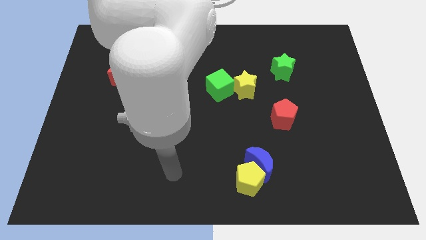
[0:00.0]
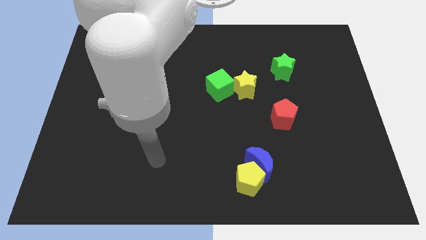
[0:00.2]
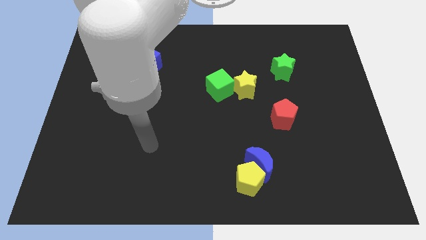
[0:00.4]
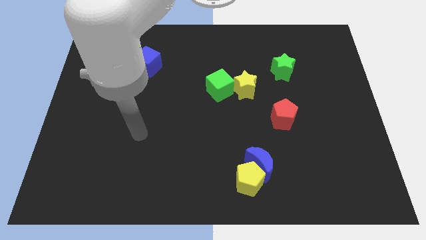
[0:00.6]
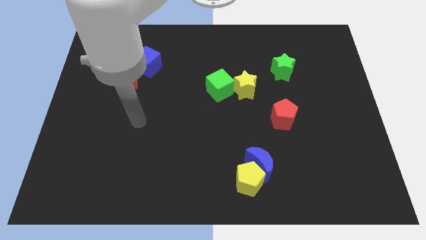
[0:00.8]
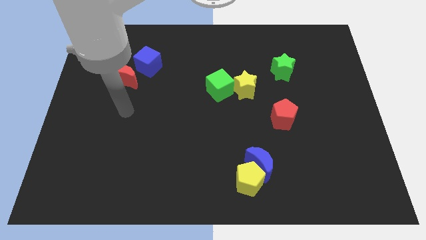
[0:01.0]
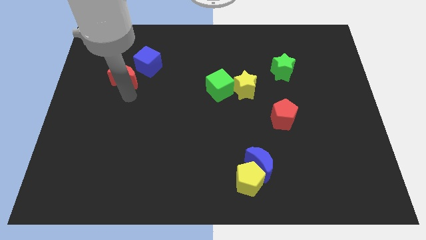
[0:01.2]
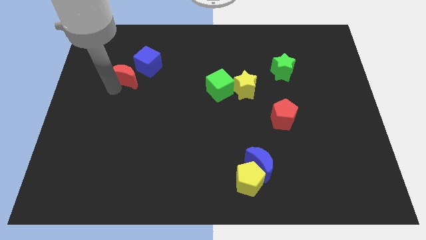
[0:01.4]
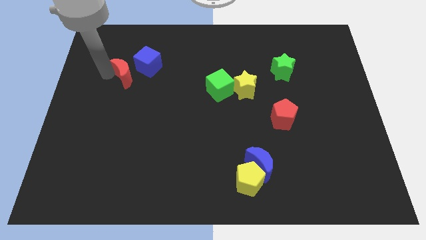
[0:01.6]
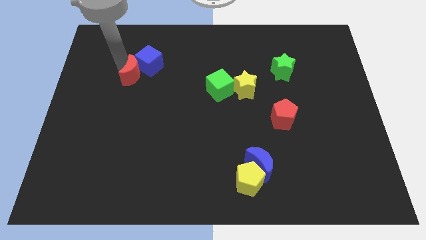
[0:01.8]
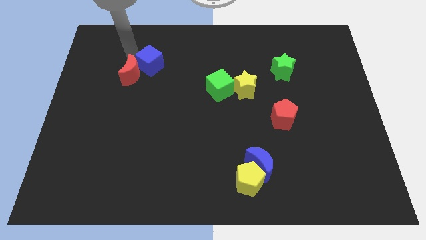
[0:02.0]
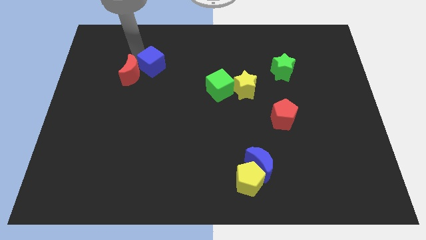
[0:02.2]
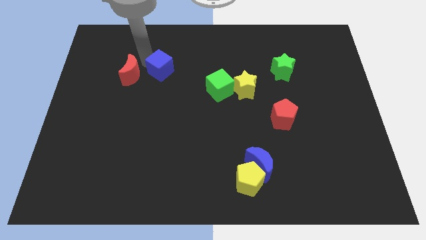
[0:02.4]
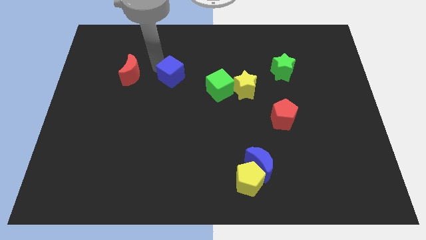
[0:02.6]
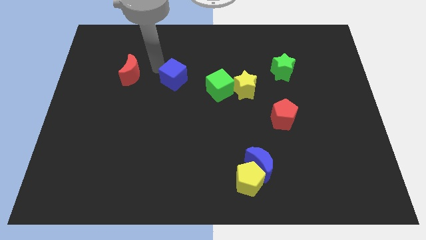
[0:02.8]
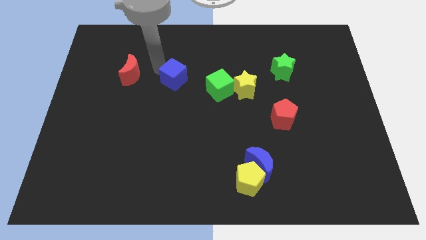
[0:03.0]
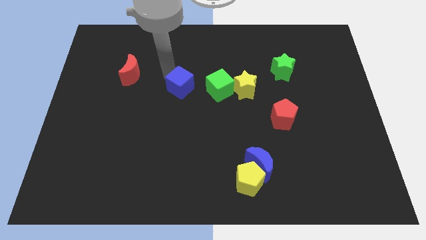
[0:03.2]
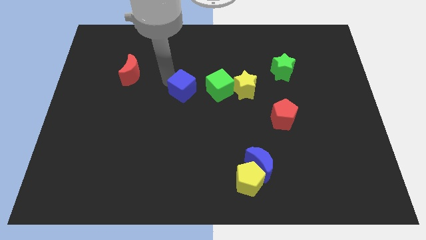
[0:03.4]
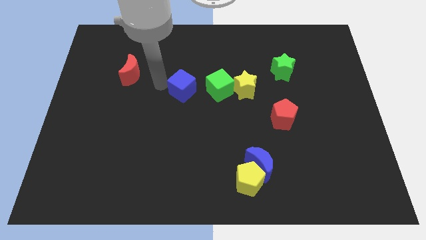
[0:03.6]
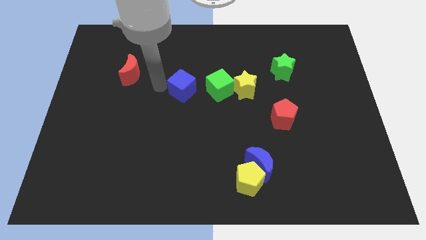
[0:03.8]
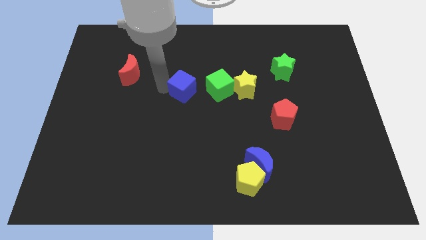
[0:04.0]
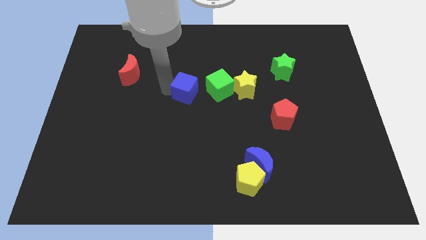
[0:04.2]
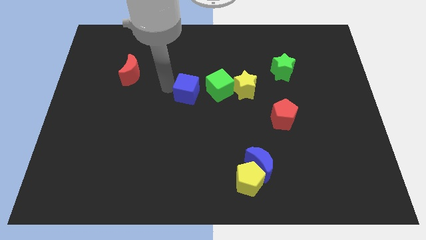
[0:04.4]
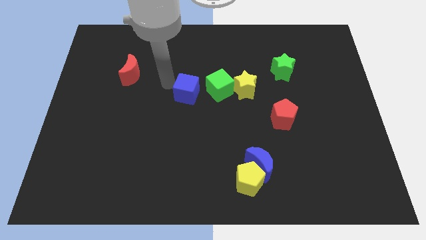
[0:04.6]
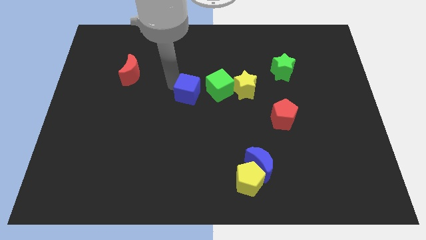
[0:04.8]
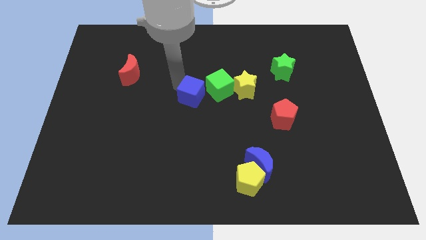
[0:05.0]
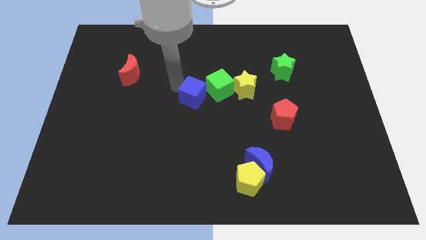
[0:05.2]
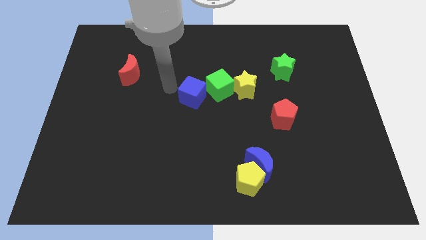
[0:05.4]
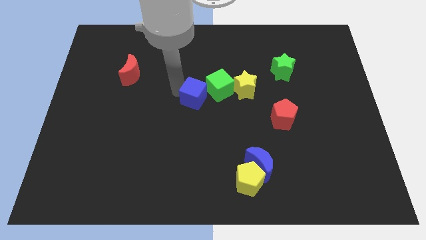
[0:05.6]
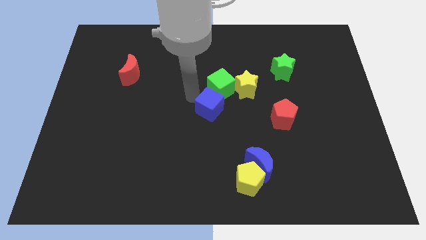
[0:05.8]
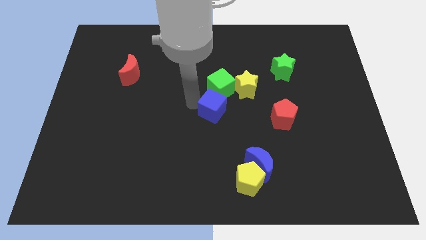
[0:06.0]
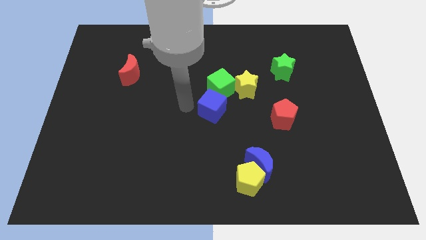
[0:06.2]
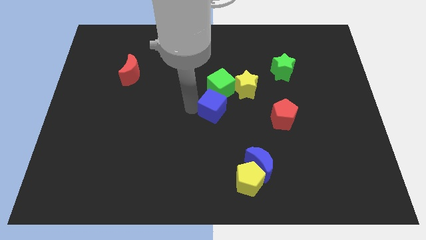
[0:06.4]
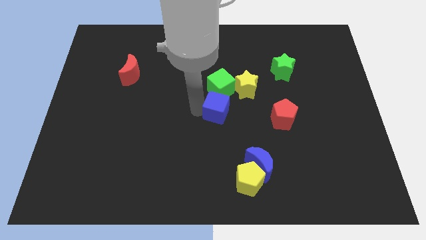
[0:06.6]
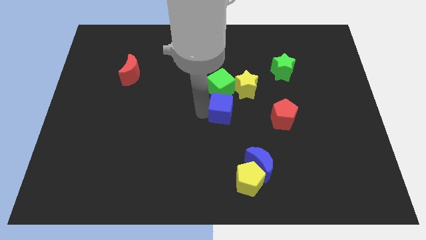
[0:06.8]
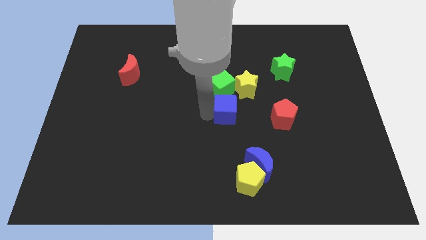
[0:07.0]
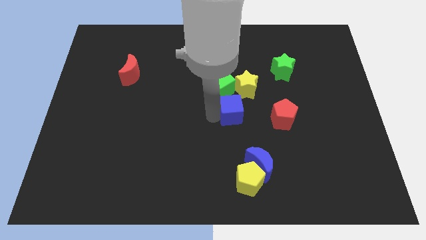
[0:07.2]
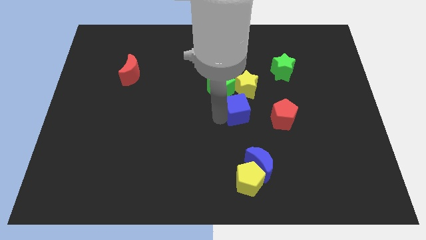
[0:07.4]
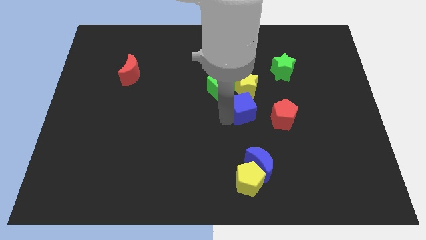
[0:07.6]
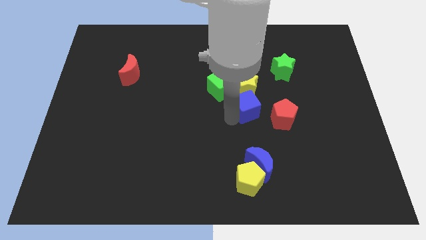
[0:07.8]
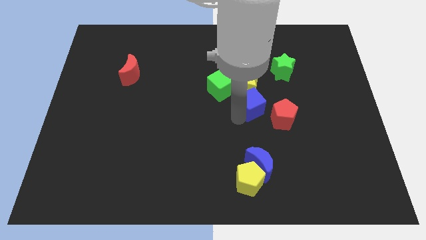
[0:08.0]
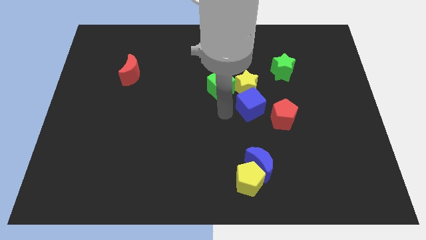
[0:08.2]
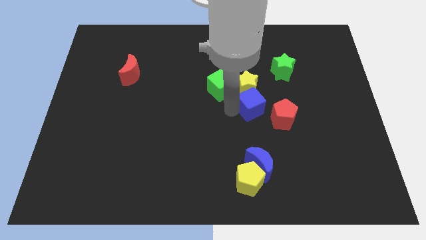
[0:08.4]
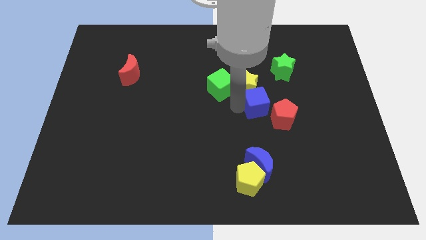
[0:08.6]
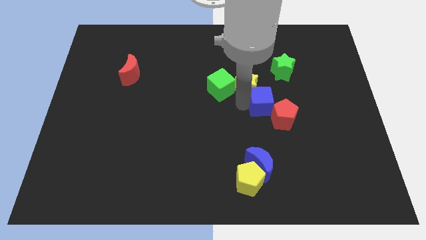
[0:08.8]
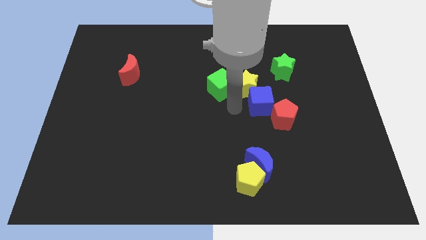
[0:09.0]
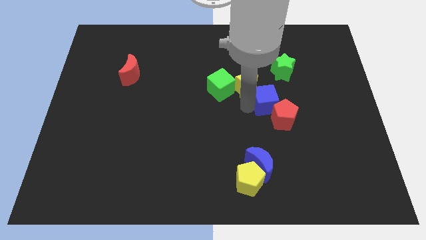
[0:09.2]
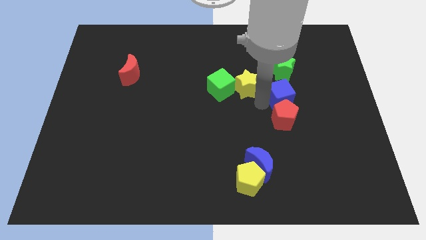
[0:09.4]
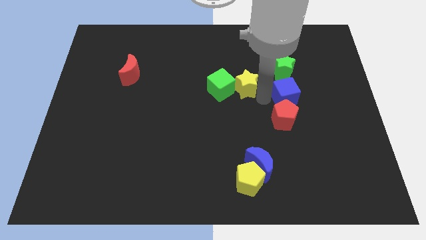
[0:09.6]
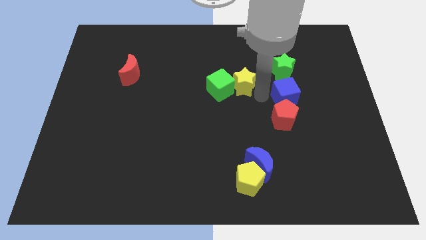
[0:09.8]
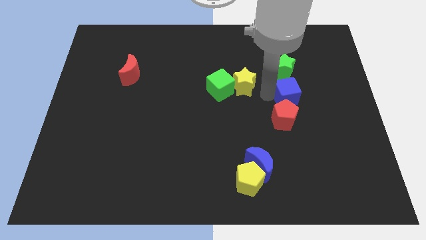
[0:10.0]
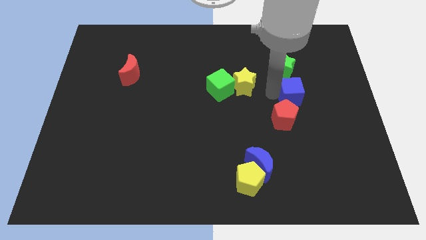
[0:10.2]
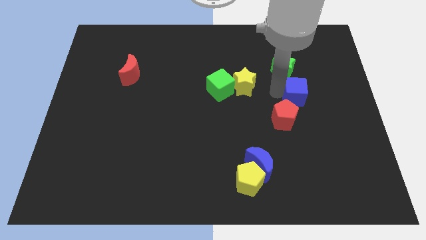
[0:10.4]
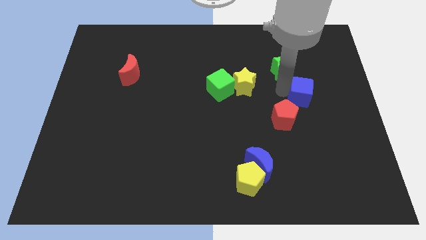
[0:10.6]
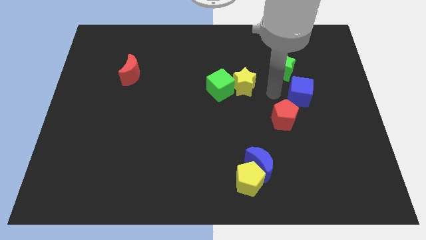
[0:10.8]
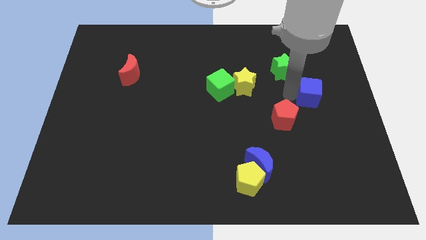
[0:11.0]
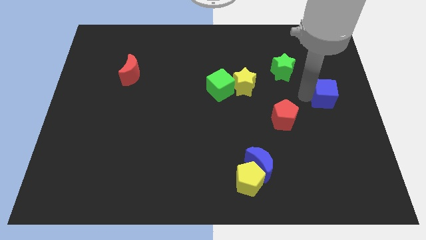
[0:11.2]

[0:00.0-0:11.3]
push the blue cube to the right side of the board

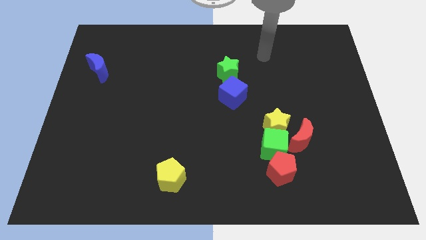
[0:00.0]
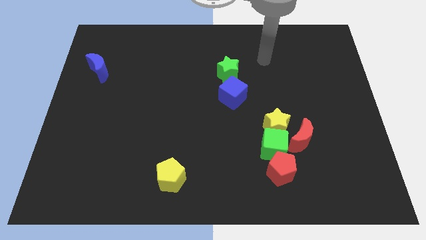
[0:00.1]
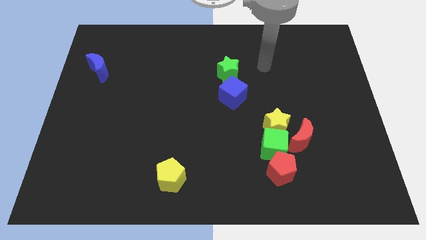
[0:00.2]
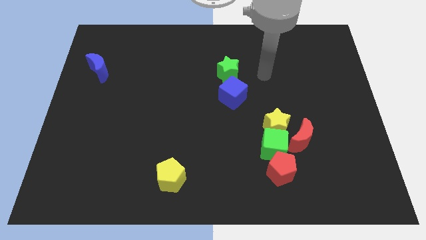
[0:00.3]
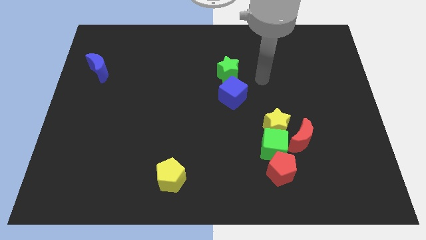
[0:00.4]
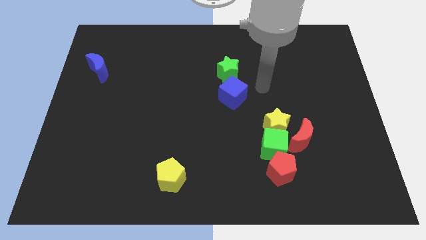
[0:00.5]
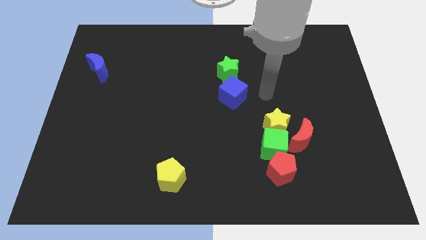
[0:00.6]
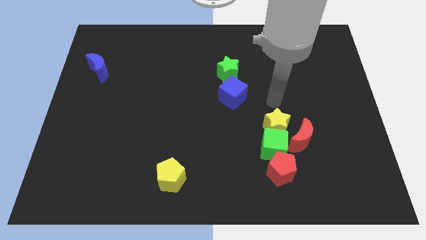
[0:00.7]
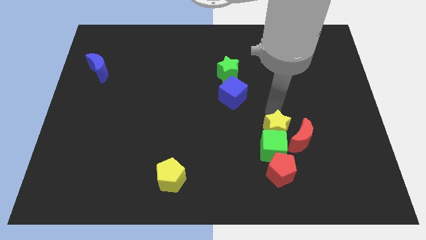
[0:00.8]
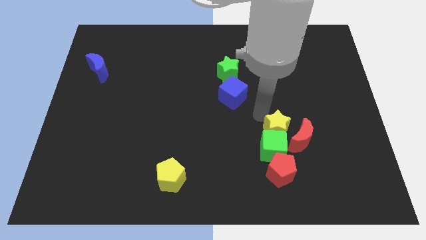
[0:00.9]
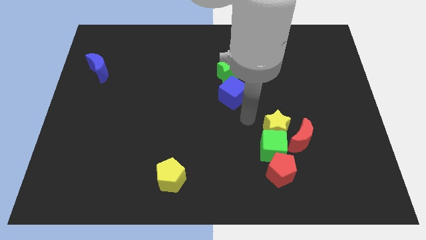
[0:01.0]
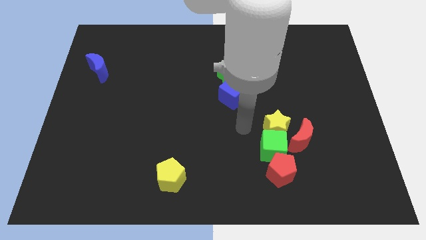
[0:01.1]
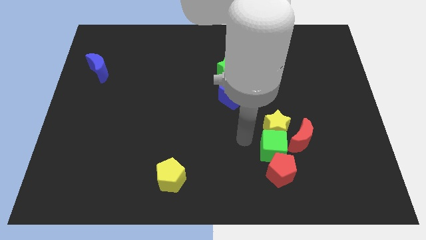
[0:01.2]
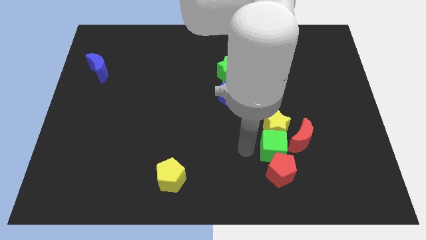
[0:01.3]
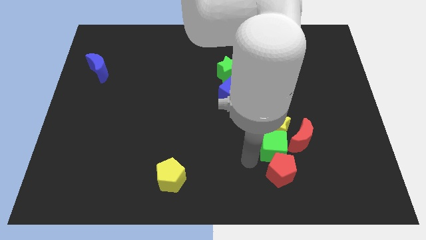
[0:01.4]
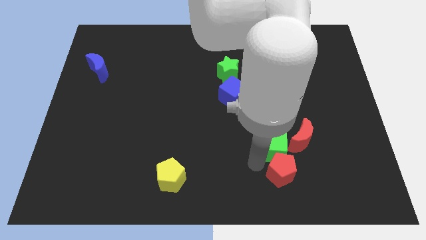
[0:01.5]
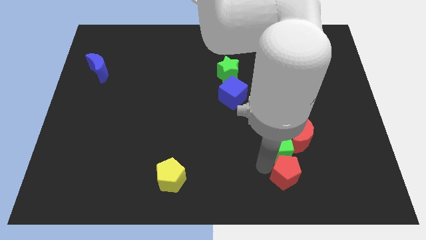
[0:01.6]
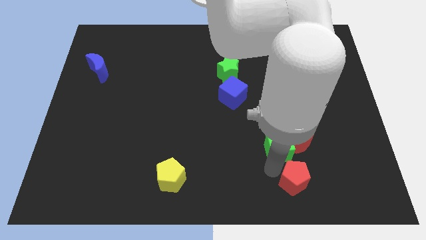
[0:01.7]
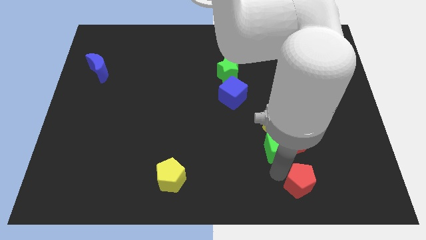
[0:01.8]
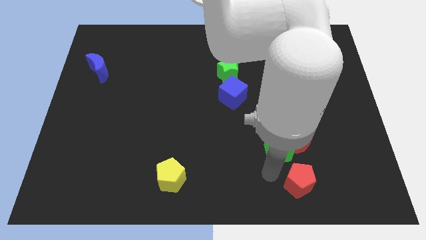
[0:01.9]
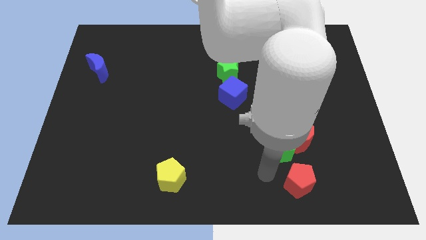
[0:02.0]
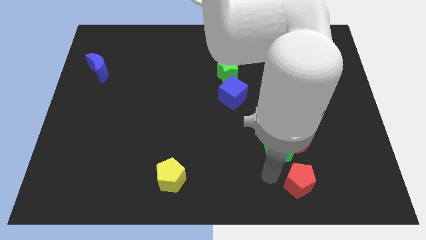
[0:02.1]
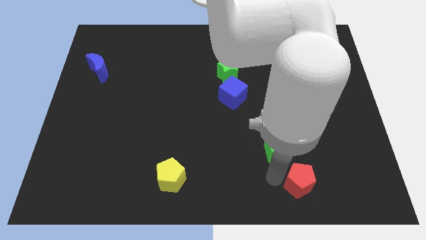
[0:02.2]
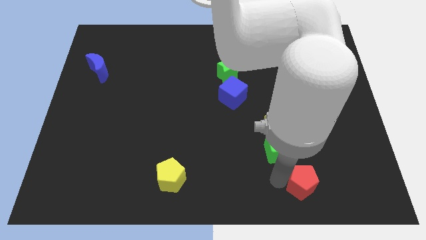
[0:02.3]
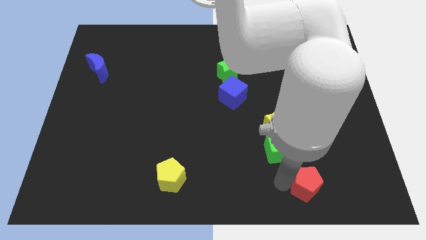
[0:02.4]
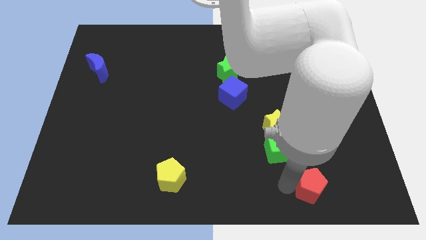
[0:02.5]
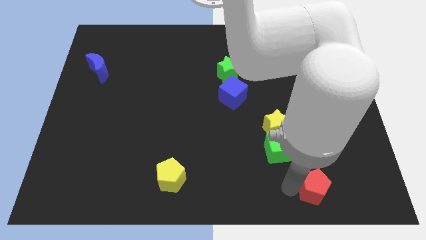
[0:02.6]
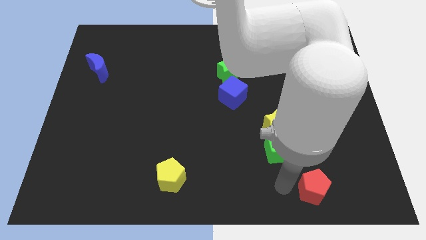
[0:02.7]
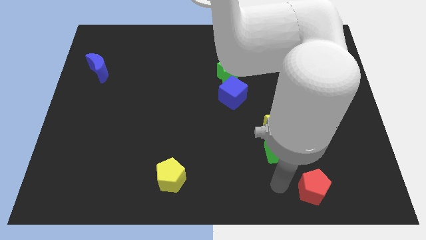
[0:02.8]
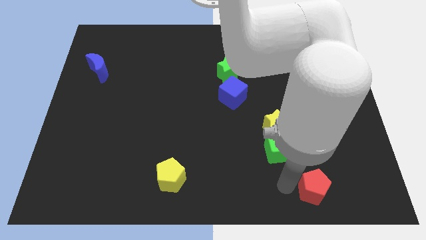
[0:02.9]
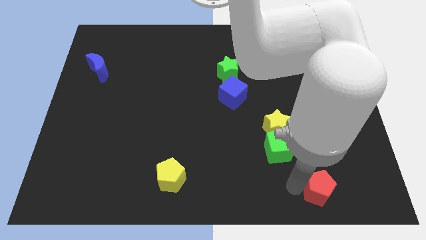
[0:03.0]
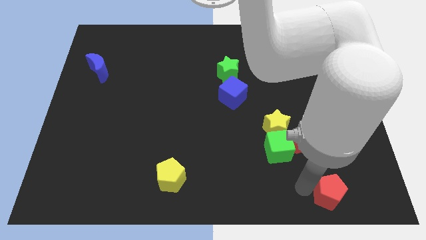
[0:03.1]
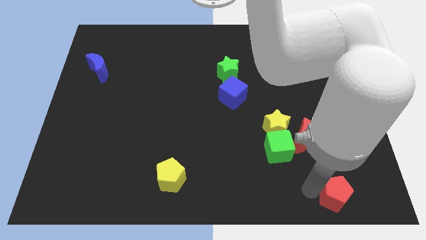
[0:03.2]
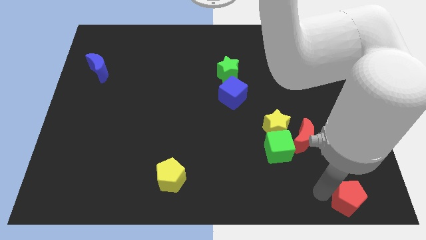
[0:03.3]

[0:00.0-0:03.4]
put the red pentagon to the bottom right
